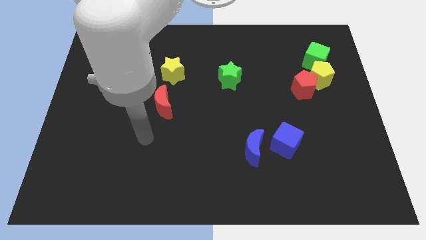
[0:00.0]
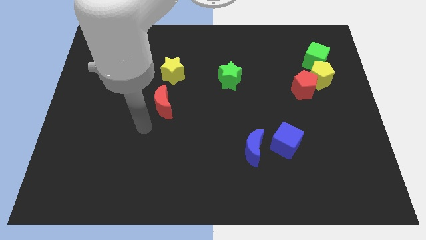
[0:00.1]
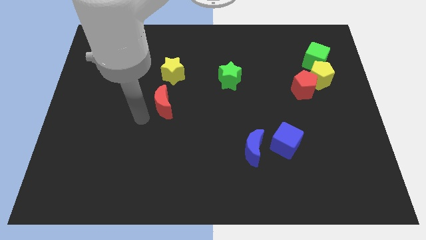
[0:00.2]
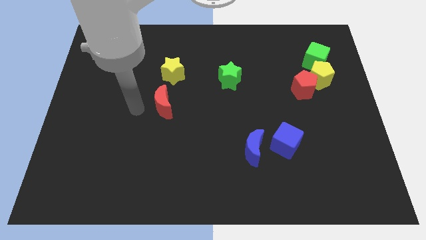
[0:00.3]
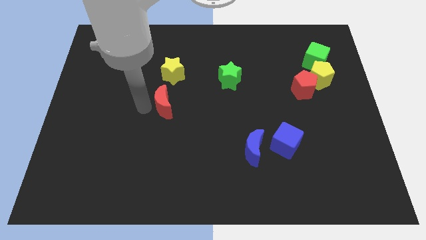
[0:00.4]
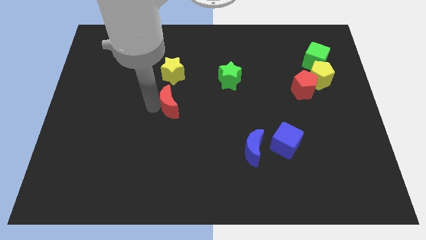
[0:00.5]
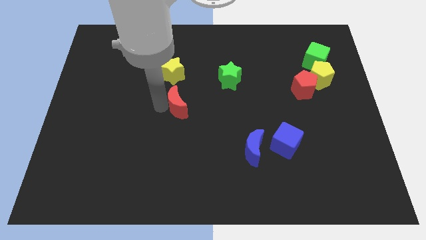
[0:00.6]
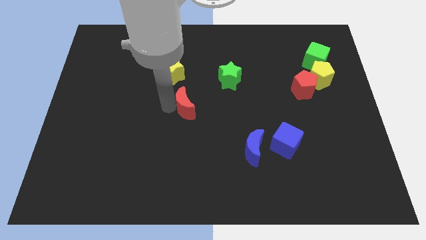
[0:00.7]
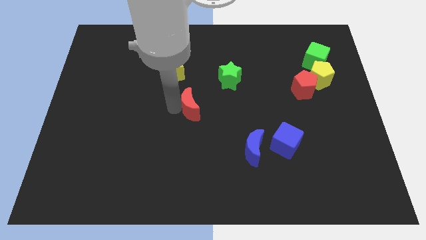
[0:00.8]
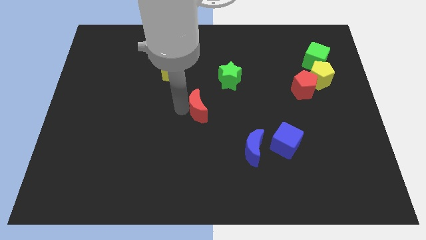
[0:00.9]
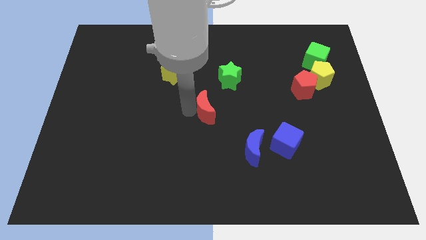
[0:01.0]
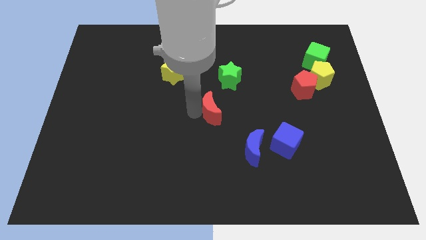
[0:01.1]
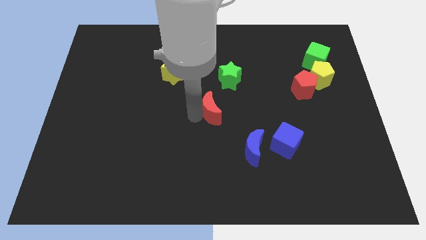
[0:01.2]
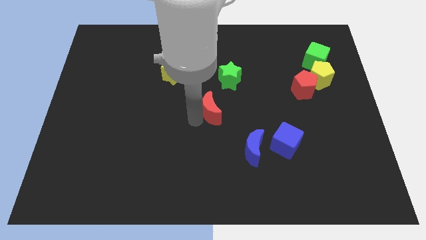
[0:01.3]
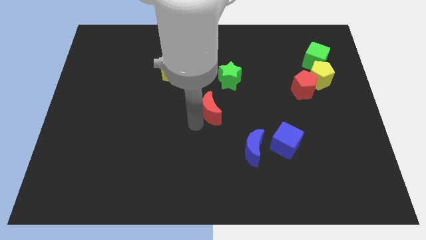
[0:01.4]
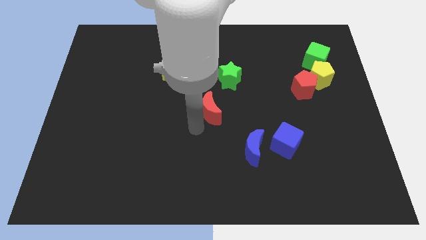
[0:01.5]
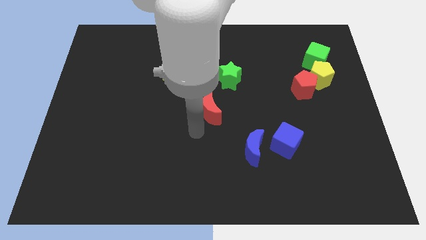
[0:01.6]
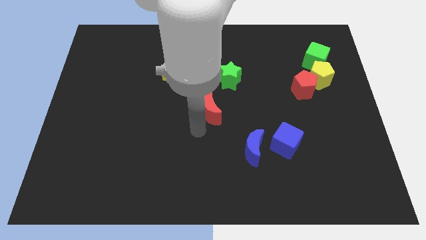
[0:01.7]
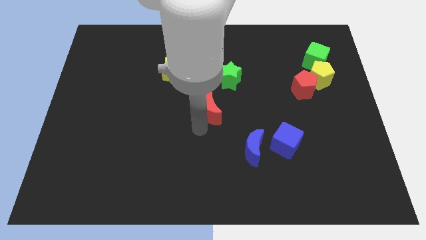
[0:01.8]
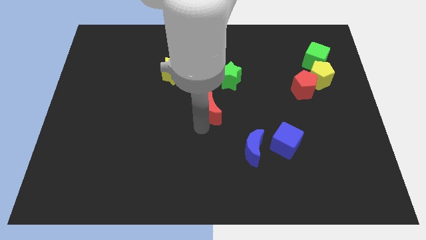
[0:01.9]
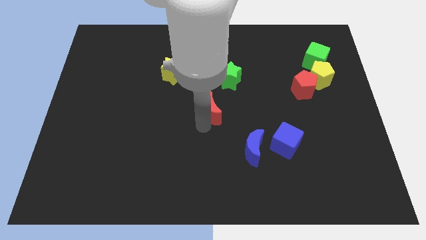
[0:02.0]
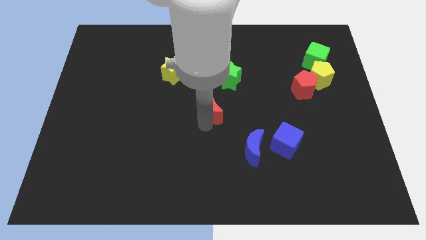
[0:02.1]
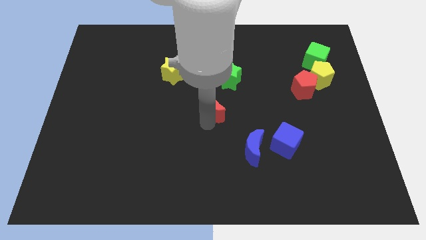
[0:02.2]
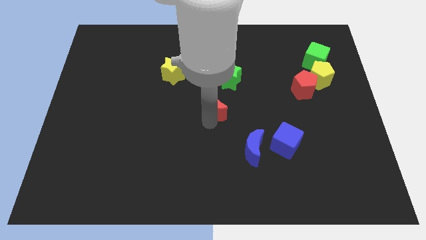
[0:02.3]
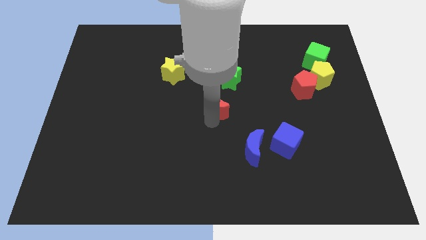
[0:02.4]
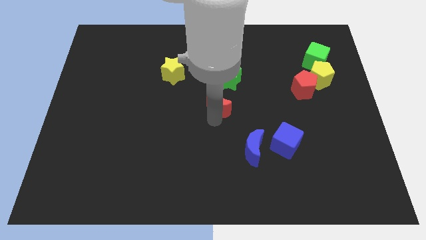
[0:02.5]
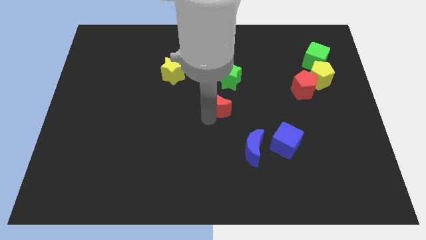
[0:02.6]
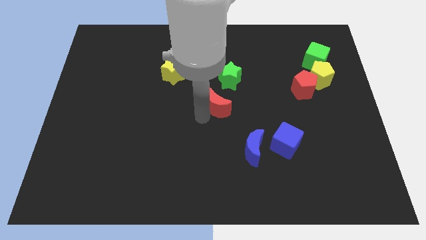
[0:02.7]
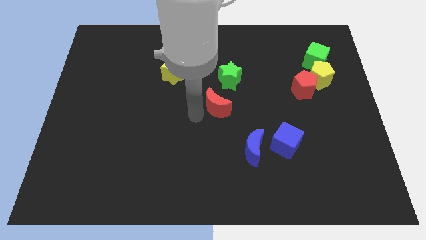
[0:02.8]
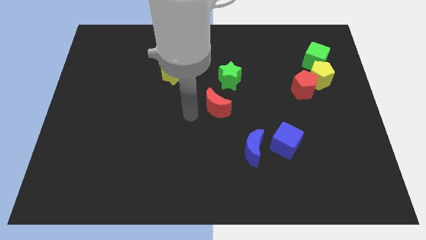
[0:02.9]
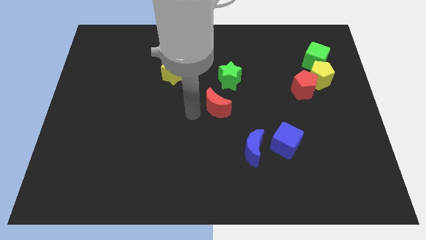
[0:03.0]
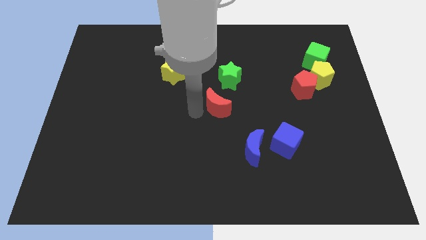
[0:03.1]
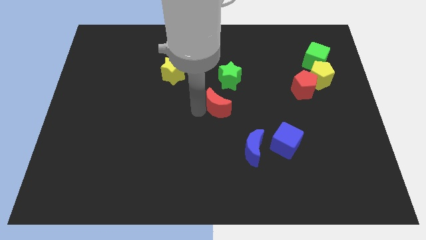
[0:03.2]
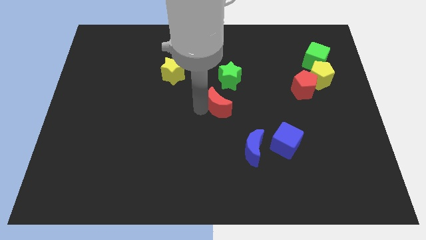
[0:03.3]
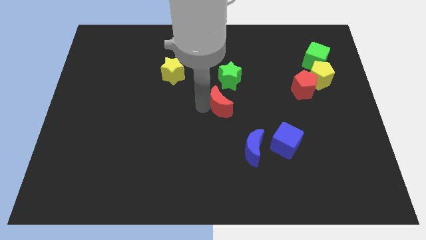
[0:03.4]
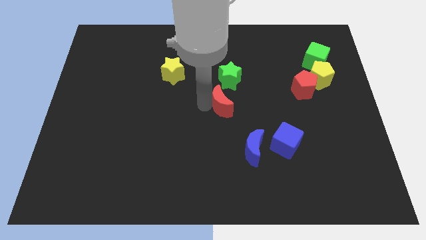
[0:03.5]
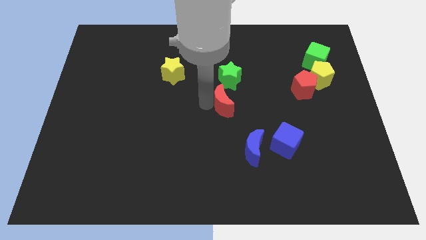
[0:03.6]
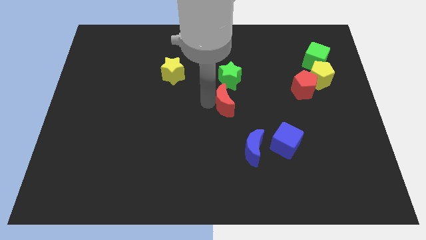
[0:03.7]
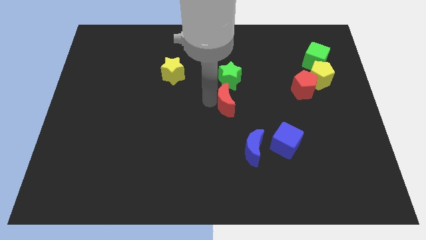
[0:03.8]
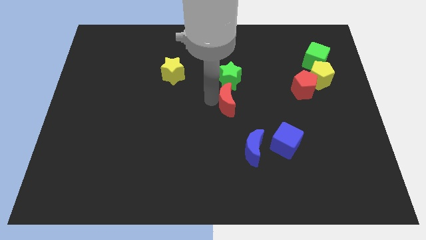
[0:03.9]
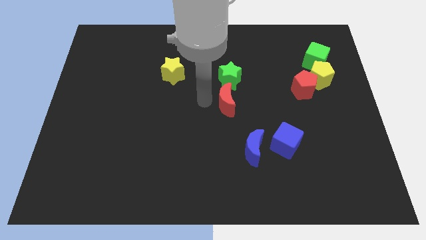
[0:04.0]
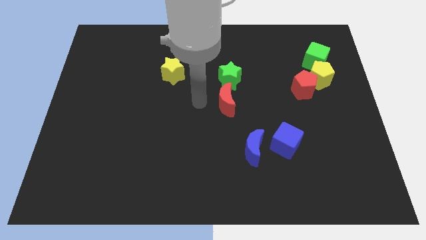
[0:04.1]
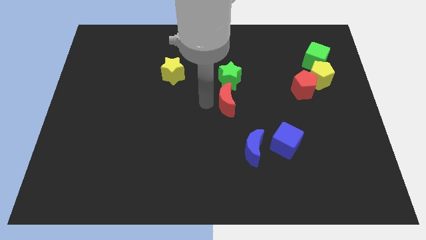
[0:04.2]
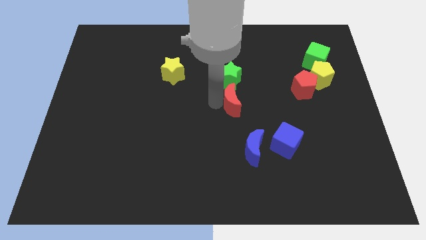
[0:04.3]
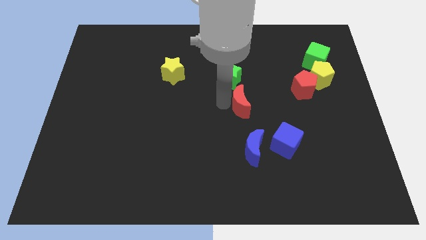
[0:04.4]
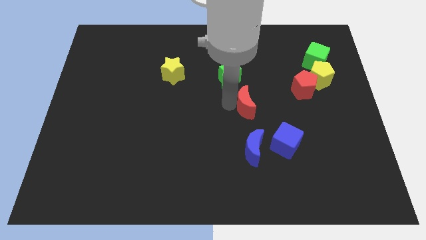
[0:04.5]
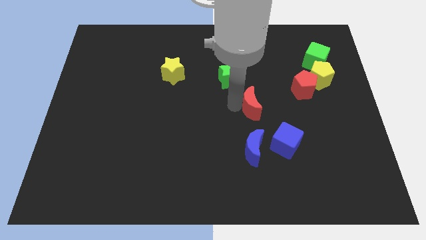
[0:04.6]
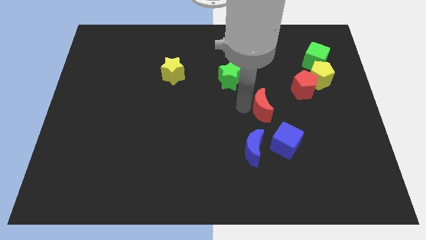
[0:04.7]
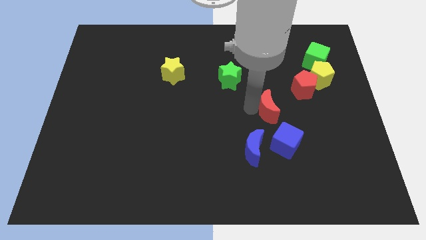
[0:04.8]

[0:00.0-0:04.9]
slide the red moon diagonally down and to the left of the red pentagon

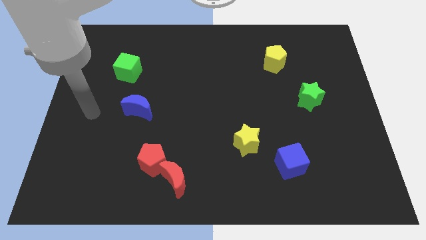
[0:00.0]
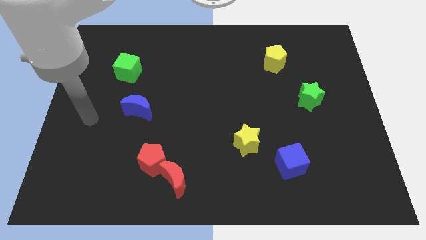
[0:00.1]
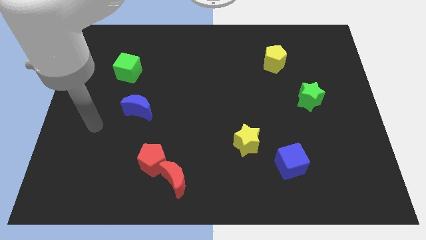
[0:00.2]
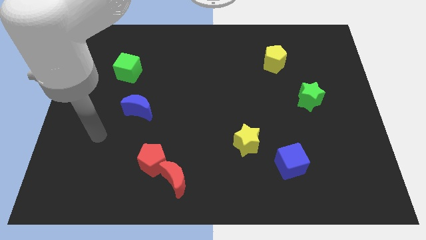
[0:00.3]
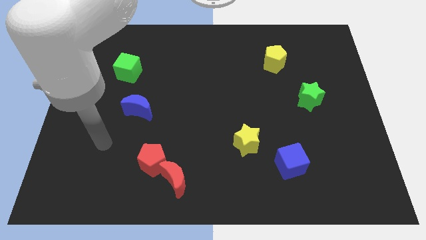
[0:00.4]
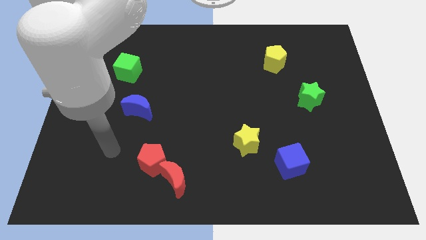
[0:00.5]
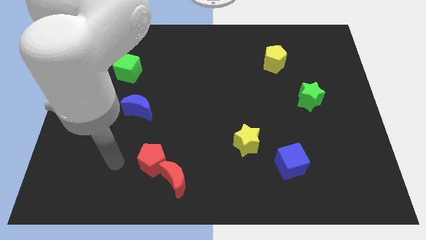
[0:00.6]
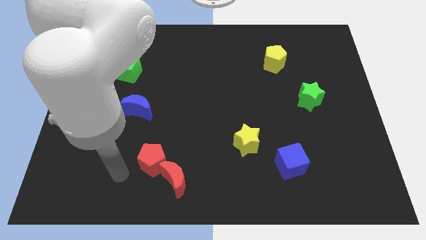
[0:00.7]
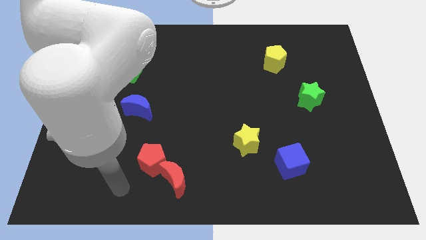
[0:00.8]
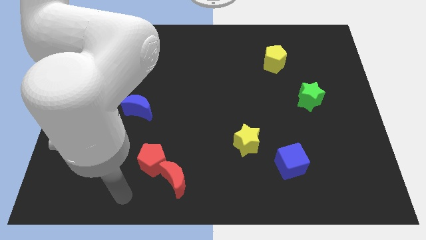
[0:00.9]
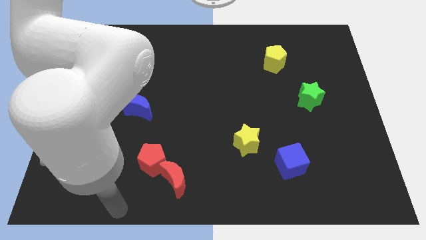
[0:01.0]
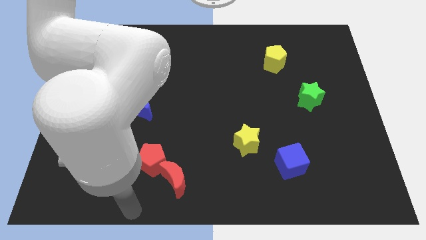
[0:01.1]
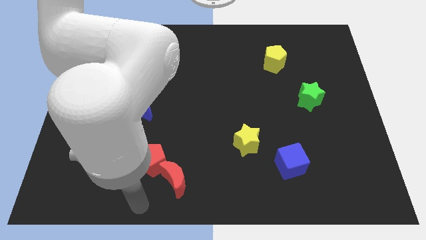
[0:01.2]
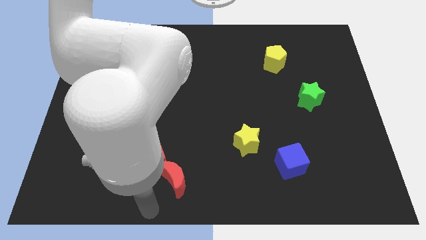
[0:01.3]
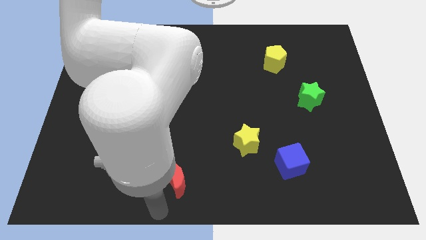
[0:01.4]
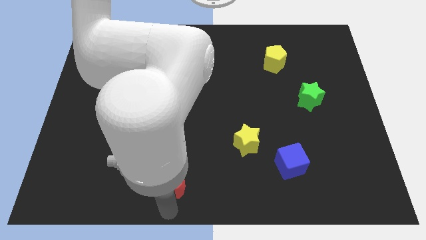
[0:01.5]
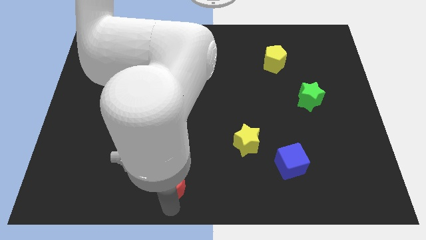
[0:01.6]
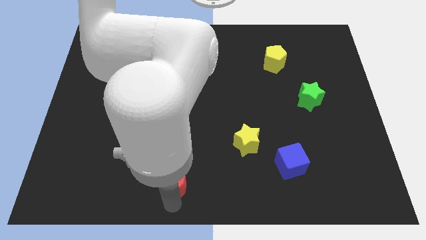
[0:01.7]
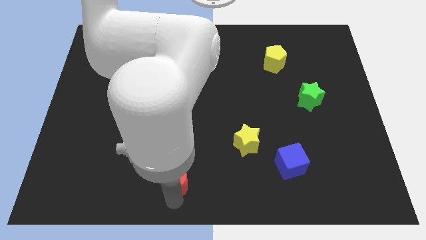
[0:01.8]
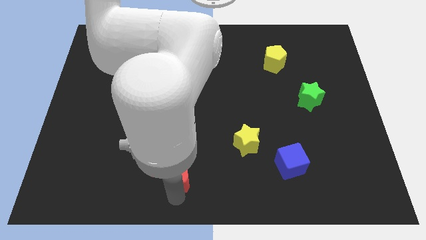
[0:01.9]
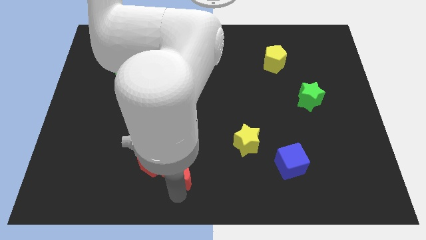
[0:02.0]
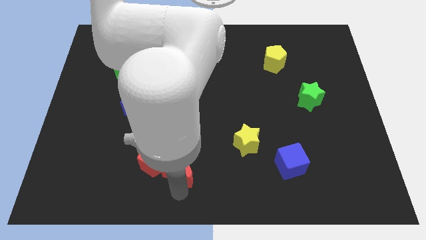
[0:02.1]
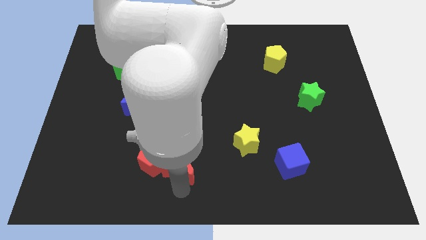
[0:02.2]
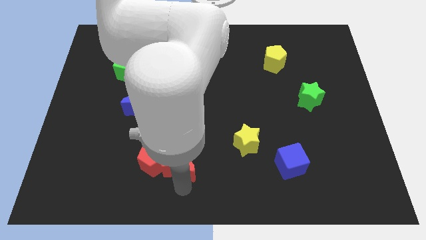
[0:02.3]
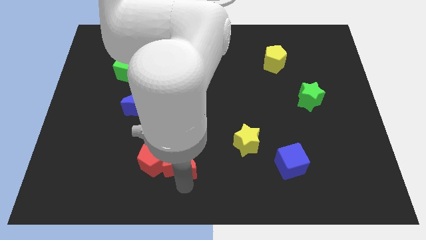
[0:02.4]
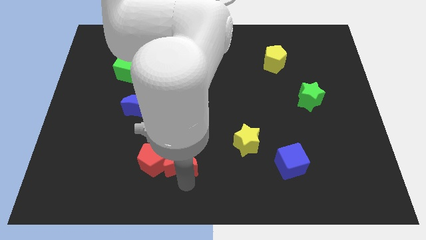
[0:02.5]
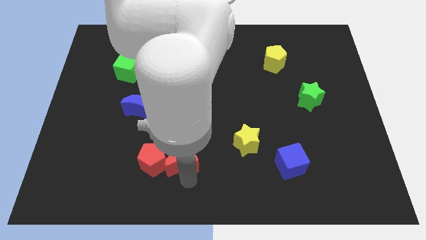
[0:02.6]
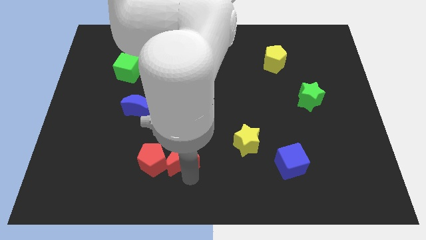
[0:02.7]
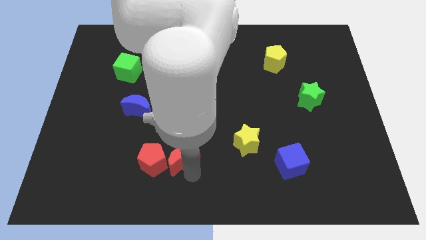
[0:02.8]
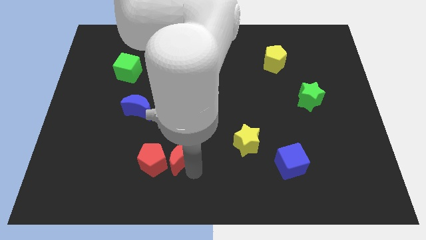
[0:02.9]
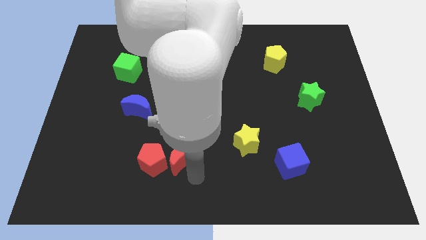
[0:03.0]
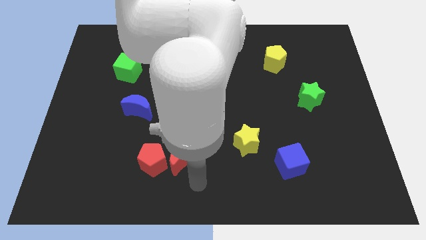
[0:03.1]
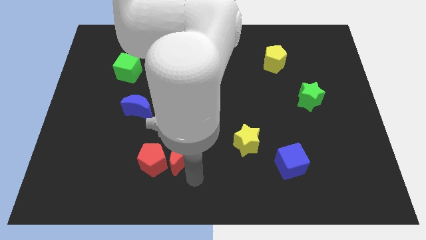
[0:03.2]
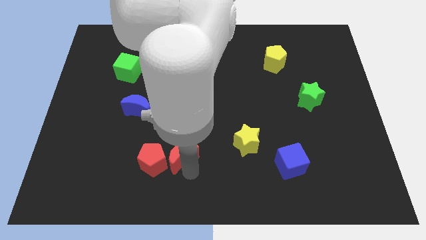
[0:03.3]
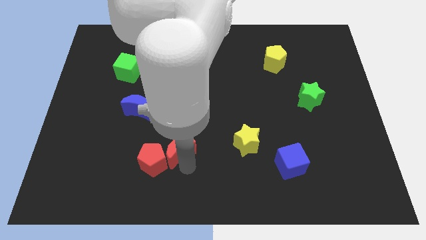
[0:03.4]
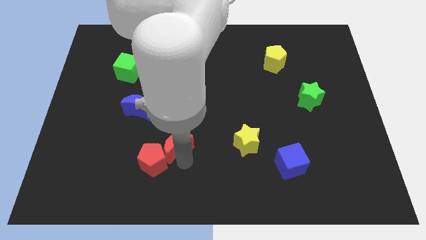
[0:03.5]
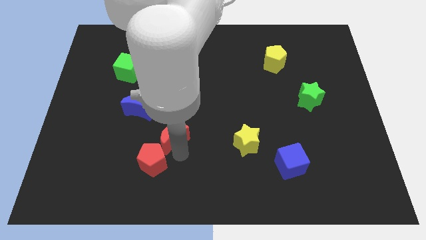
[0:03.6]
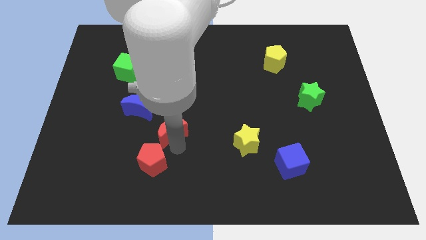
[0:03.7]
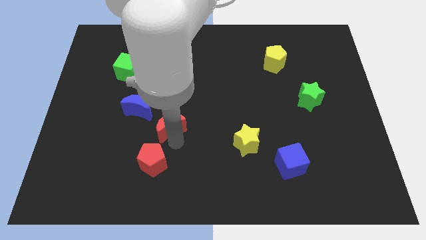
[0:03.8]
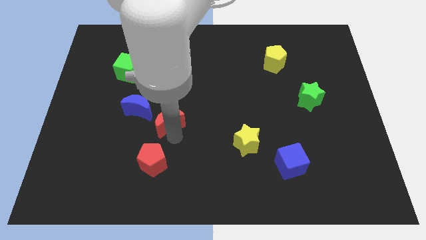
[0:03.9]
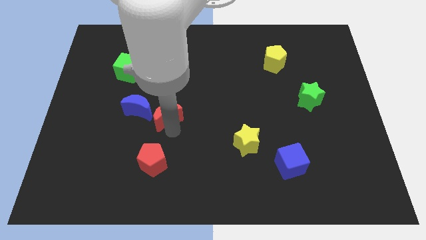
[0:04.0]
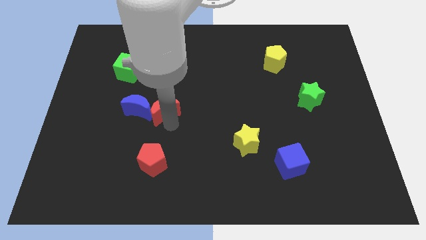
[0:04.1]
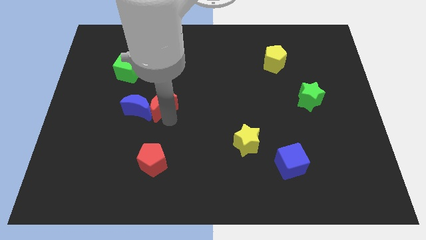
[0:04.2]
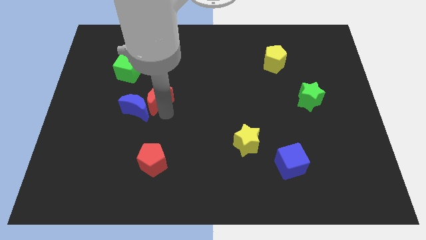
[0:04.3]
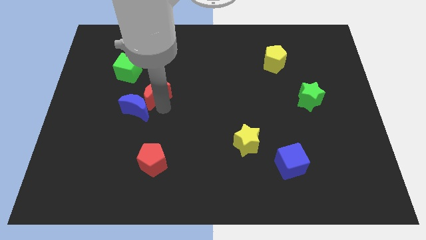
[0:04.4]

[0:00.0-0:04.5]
push the red moon to the bottom right of the green cube
